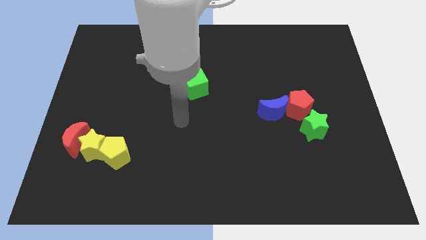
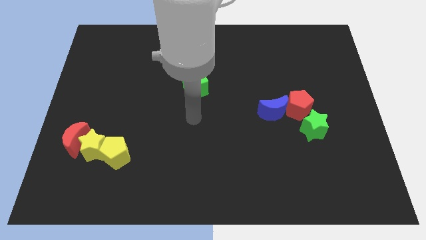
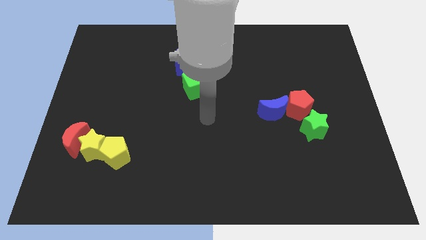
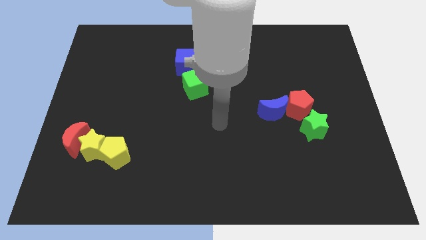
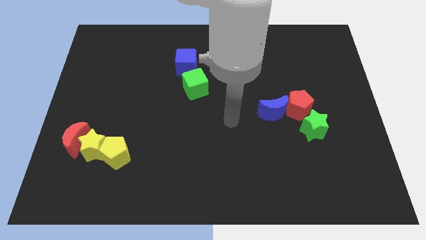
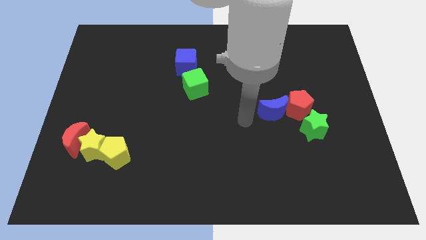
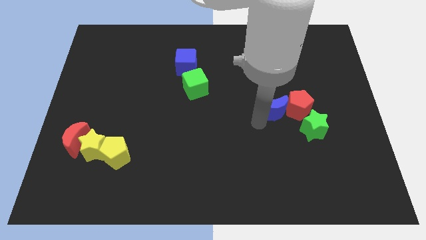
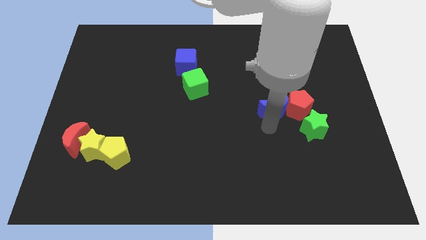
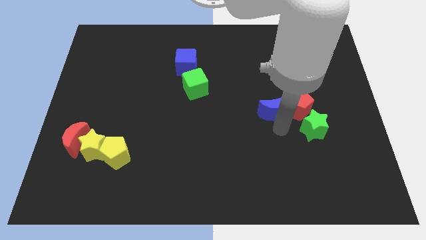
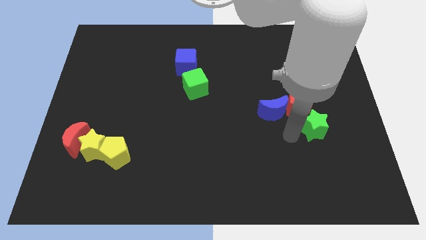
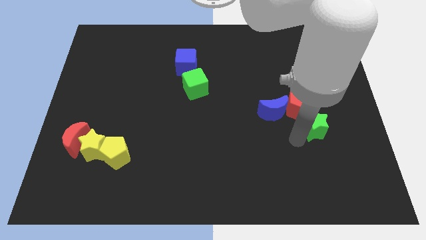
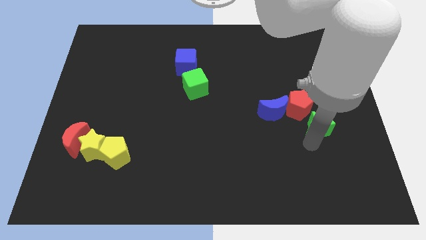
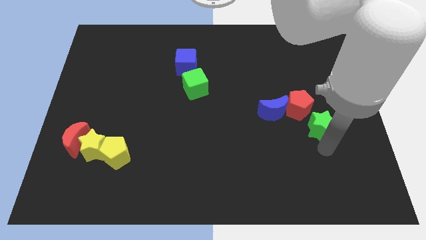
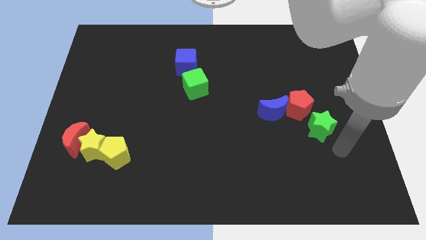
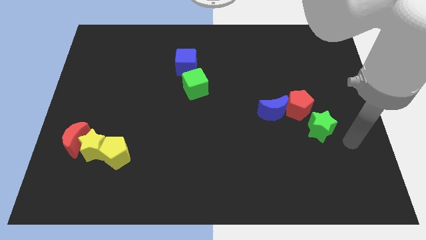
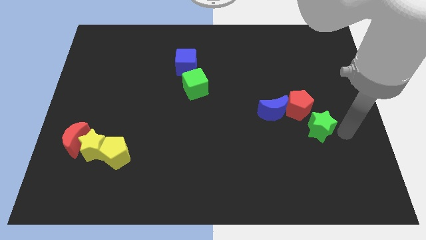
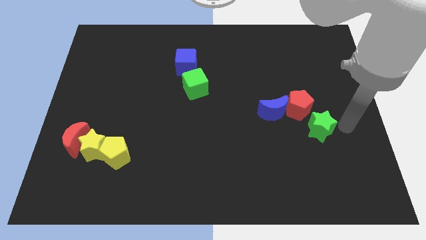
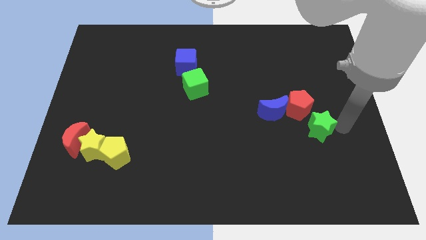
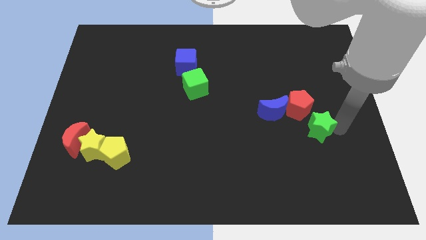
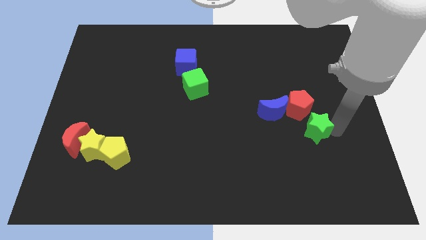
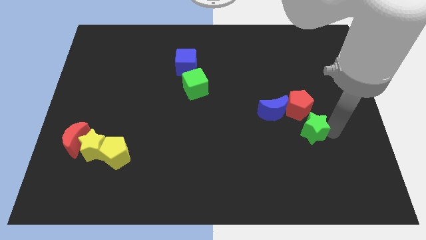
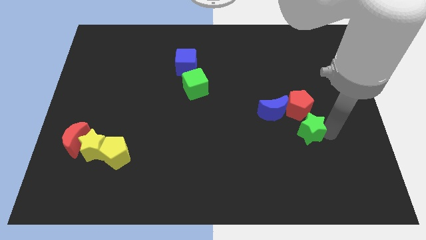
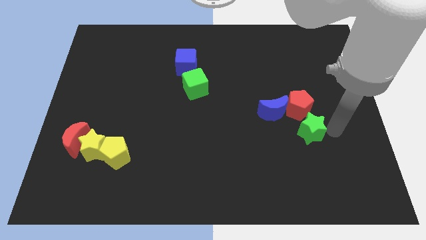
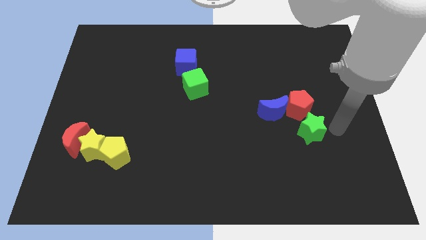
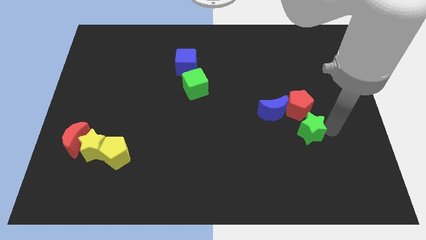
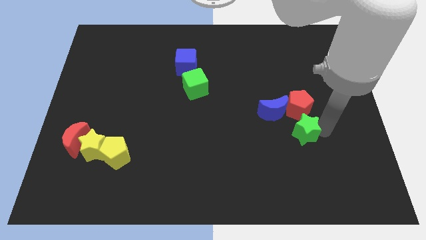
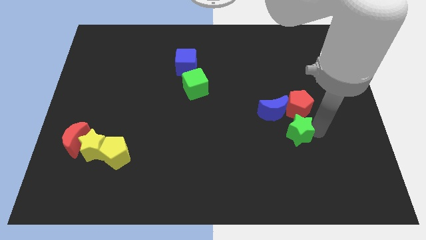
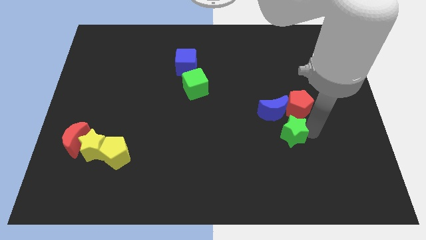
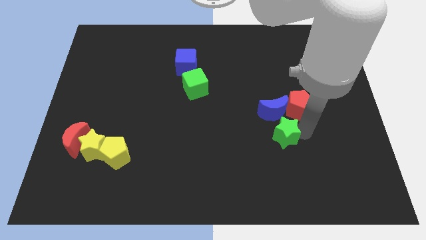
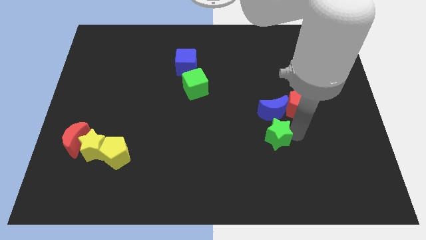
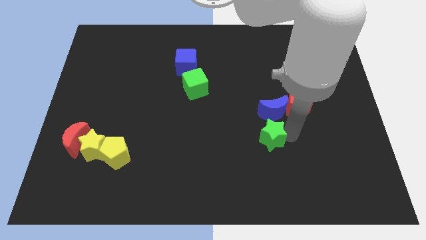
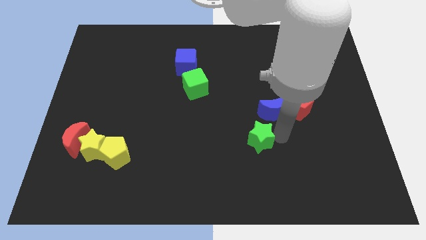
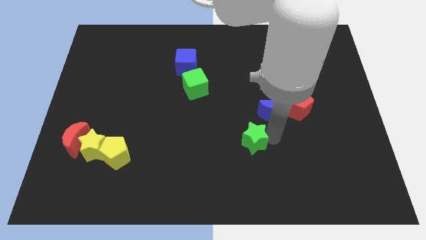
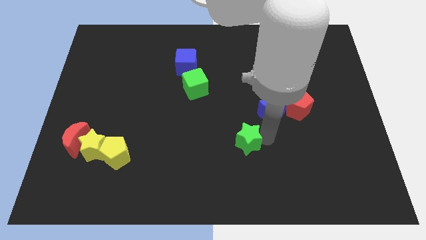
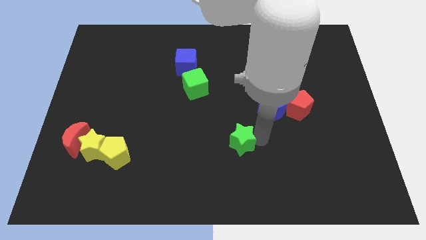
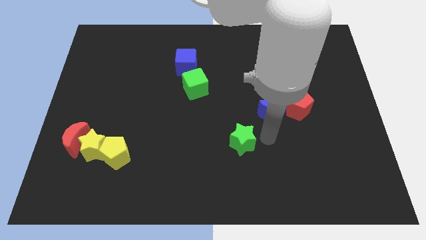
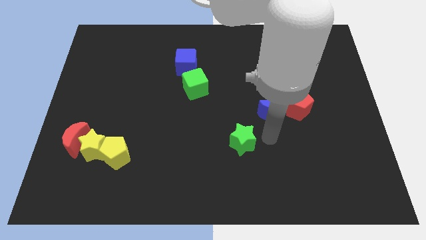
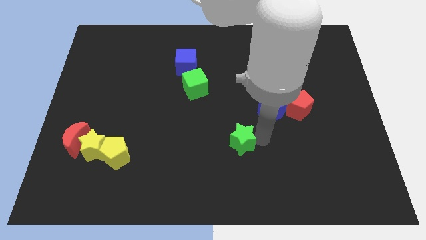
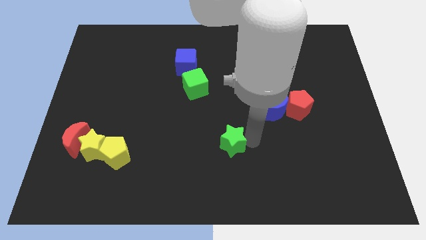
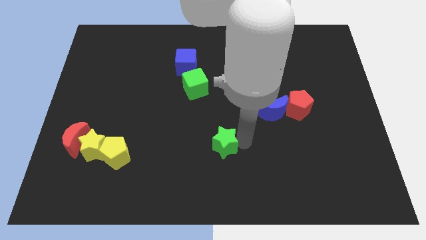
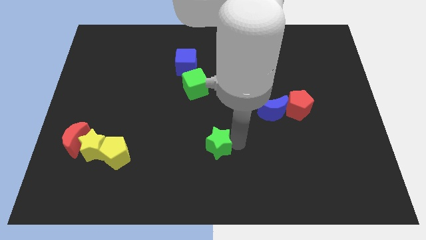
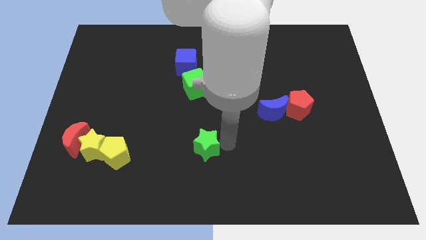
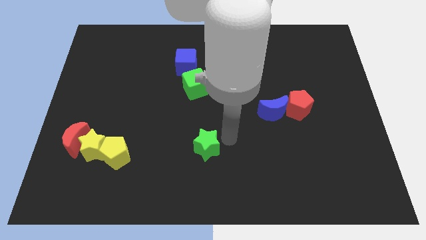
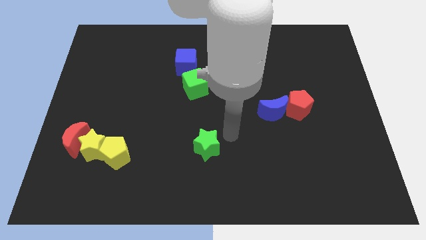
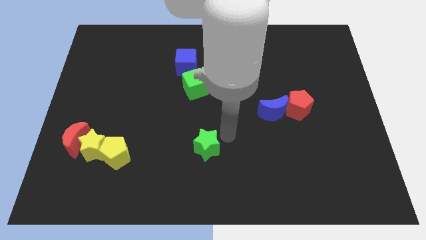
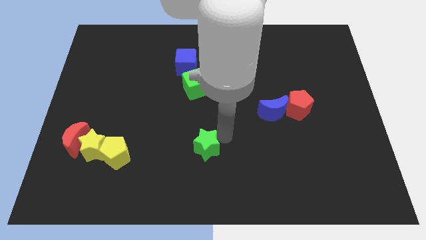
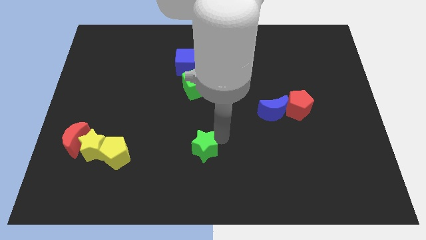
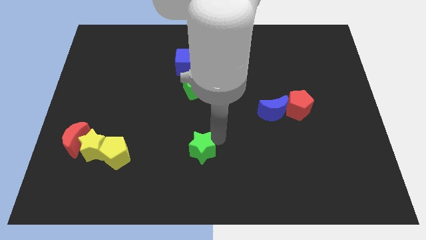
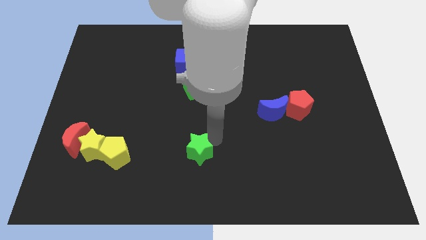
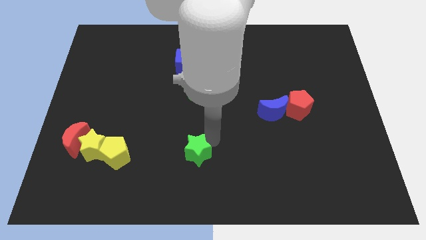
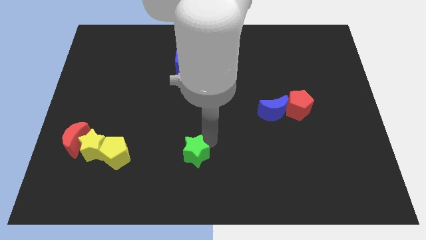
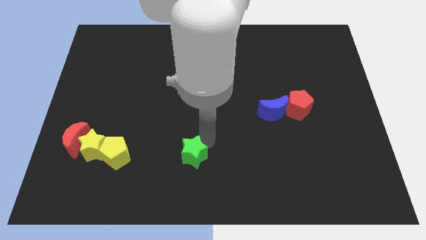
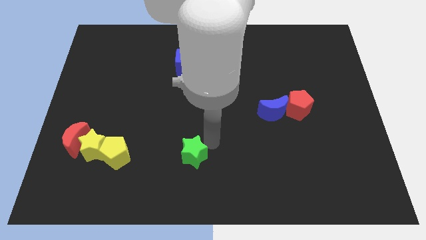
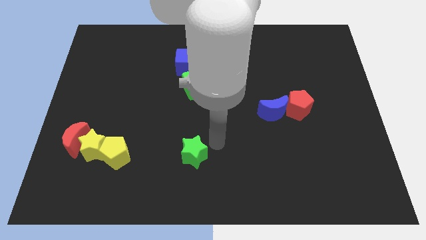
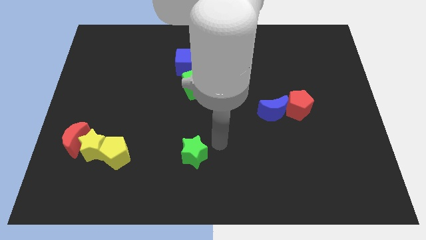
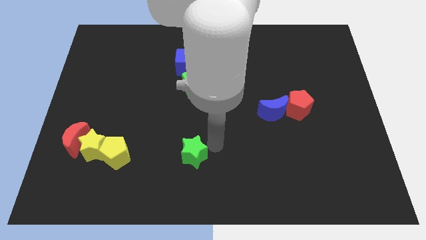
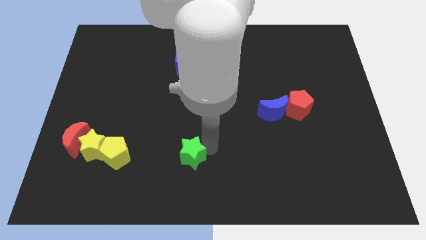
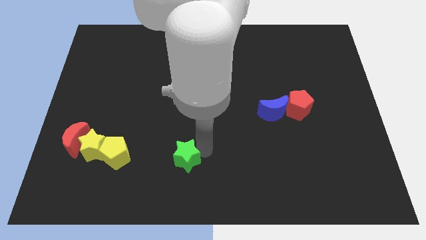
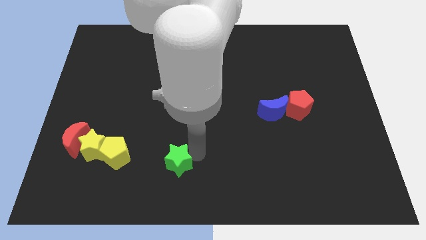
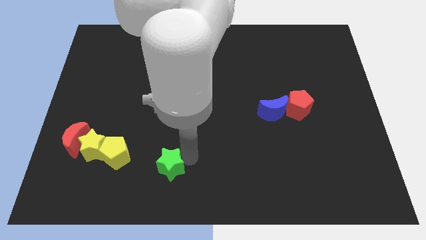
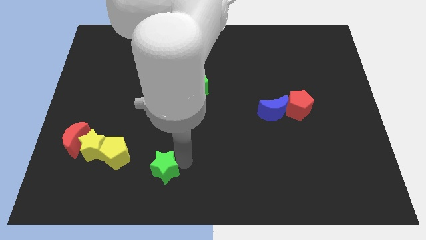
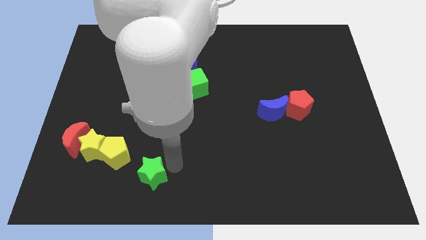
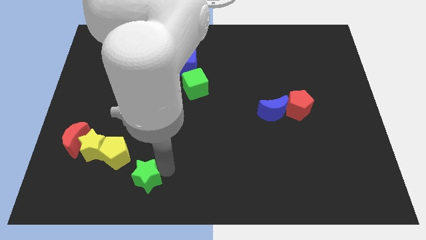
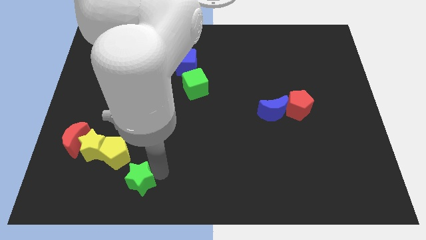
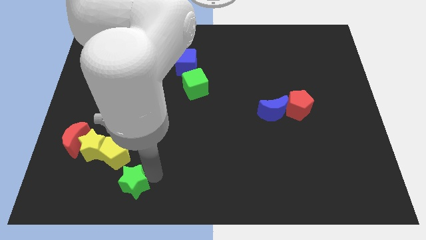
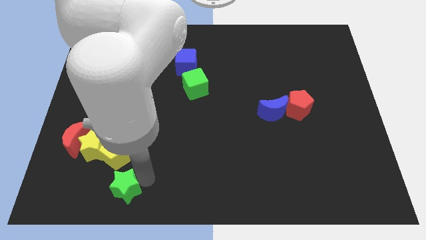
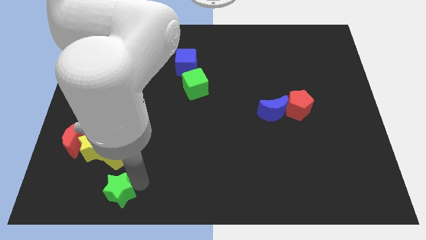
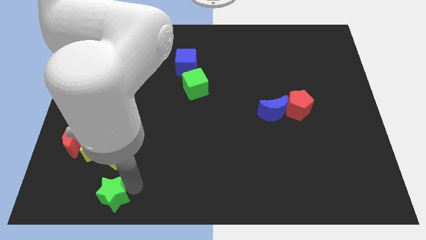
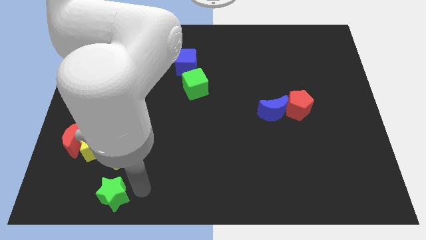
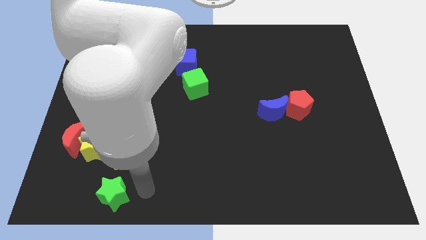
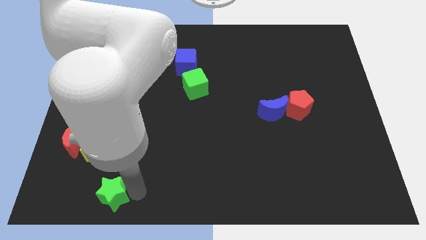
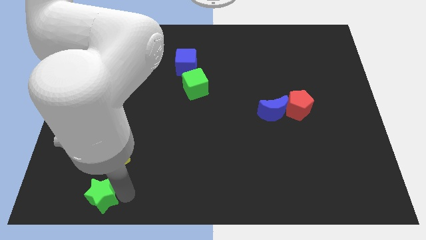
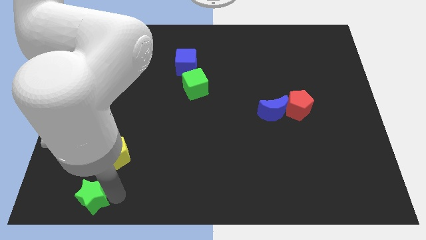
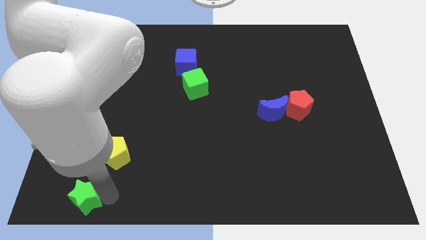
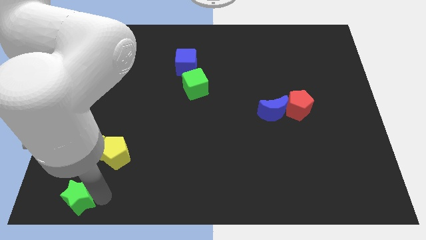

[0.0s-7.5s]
push the green star to the bottom left
